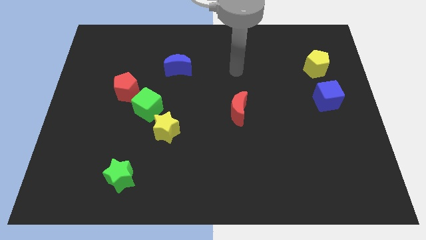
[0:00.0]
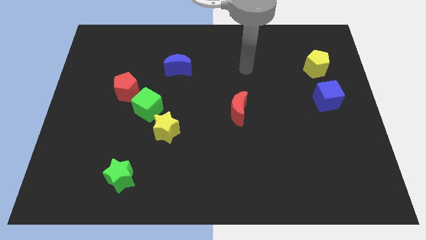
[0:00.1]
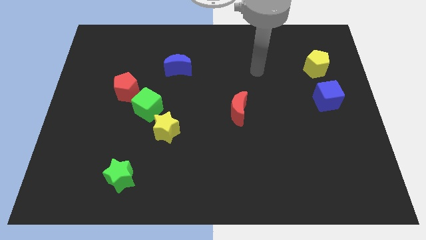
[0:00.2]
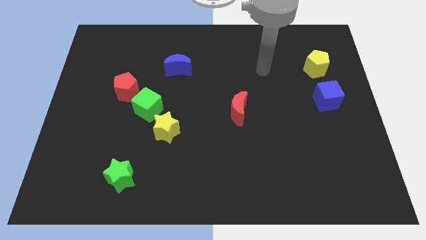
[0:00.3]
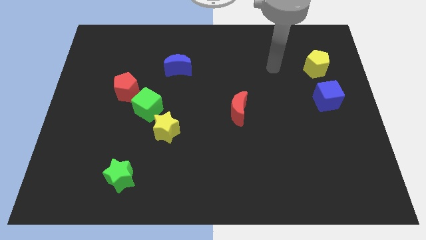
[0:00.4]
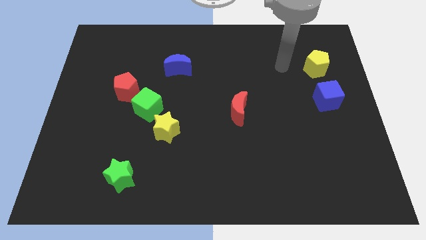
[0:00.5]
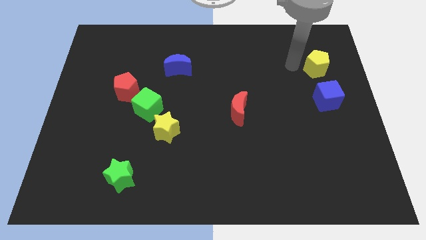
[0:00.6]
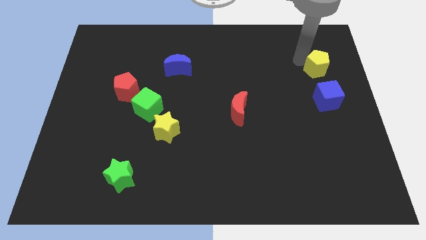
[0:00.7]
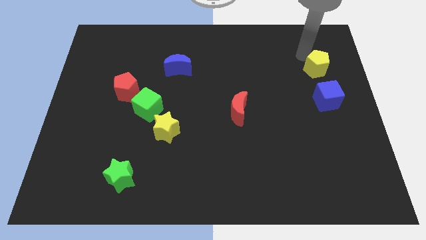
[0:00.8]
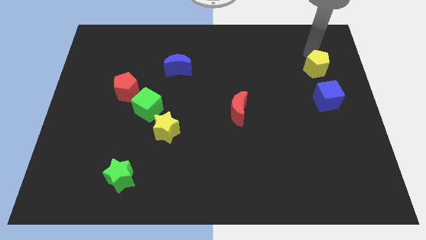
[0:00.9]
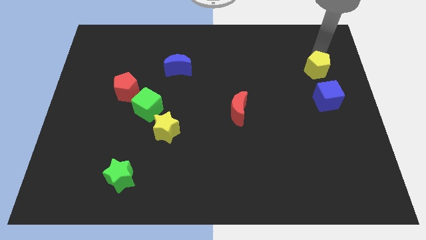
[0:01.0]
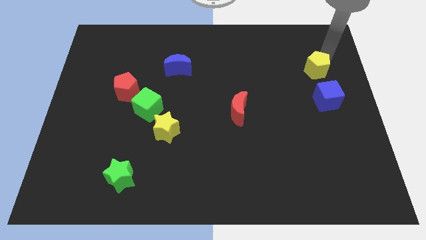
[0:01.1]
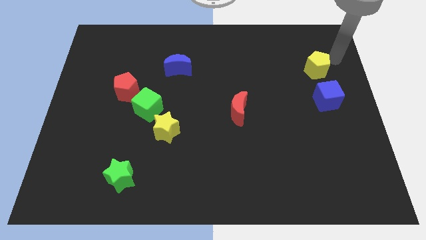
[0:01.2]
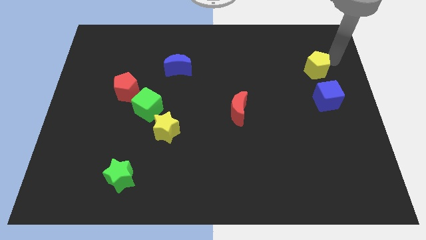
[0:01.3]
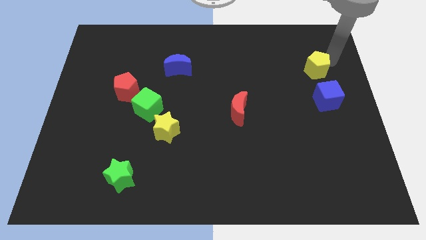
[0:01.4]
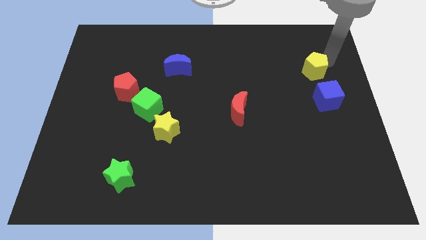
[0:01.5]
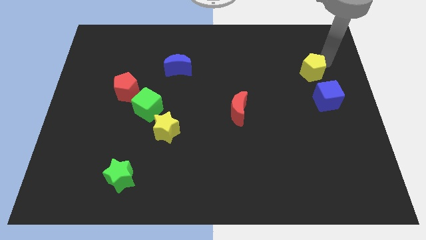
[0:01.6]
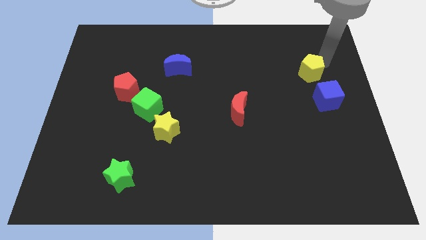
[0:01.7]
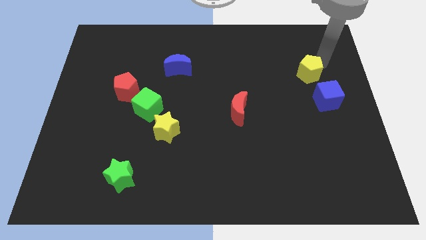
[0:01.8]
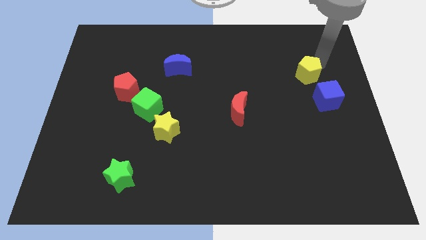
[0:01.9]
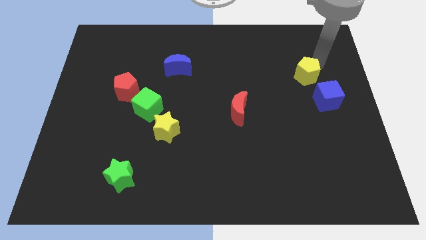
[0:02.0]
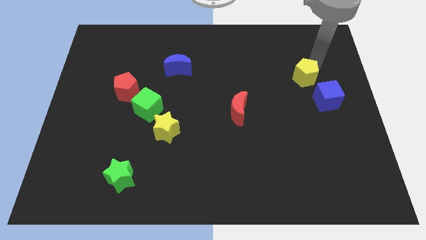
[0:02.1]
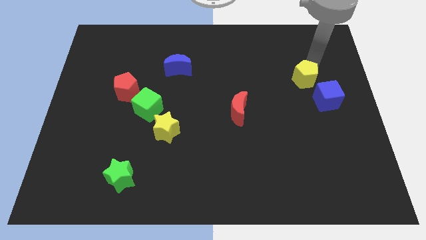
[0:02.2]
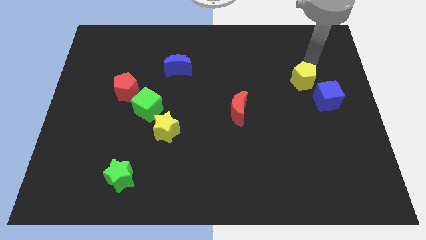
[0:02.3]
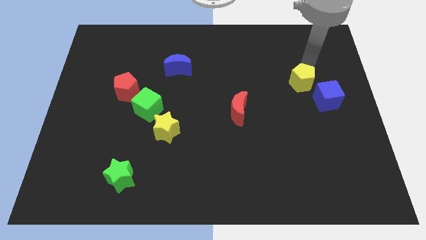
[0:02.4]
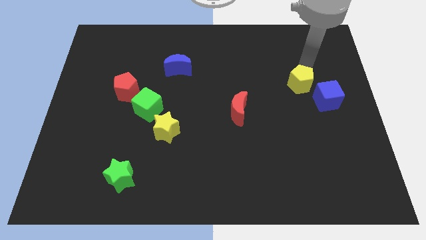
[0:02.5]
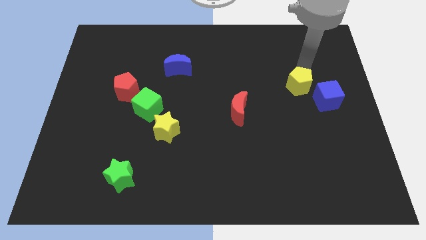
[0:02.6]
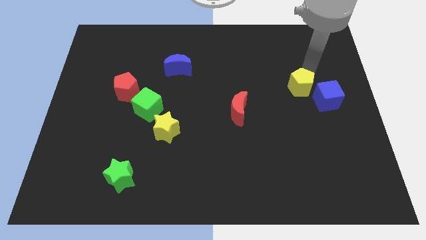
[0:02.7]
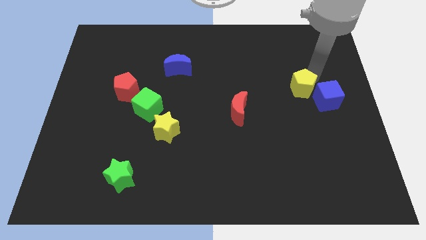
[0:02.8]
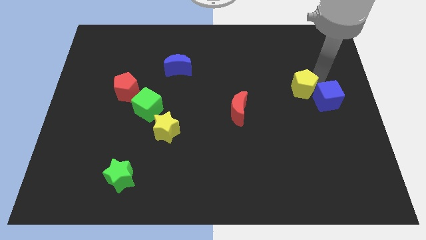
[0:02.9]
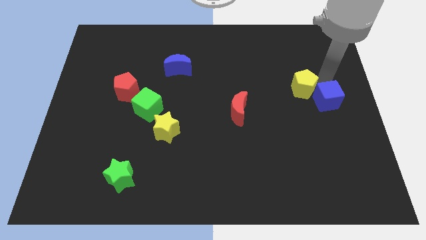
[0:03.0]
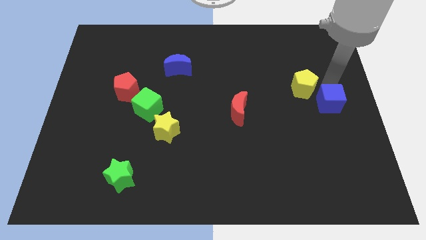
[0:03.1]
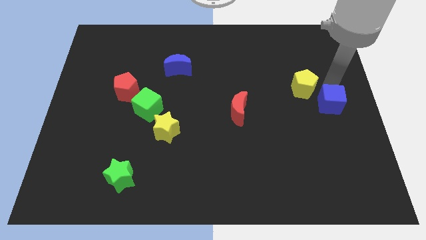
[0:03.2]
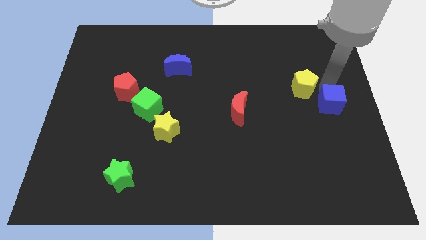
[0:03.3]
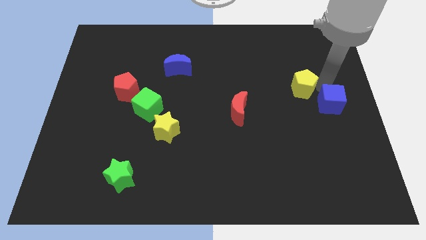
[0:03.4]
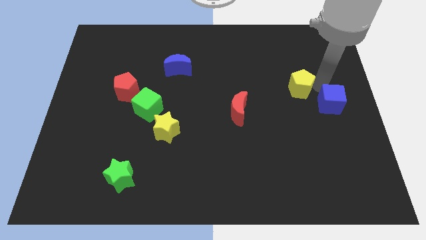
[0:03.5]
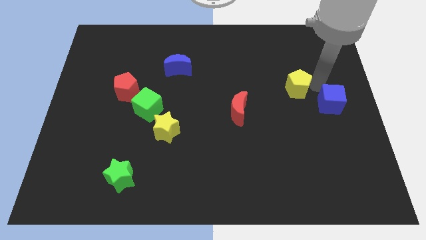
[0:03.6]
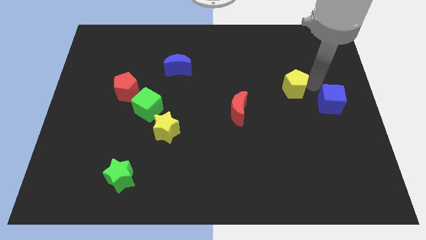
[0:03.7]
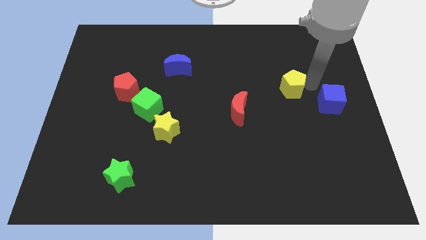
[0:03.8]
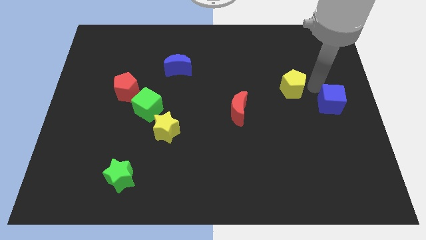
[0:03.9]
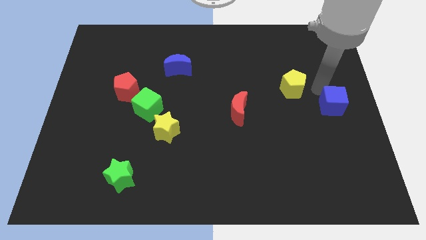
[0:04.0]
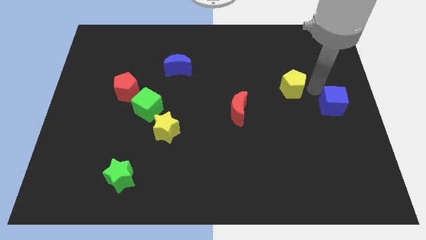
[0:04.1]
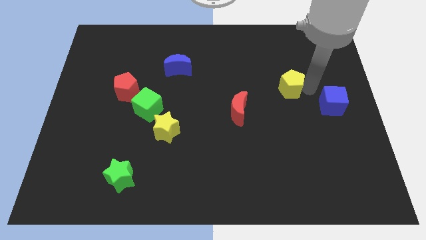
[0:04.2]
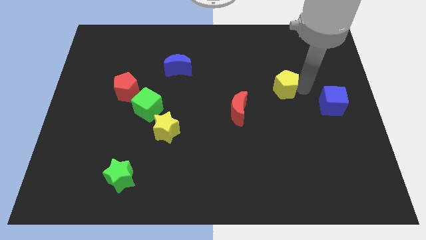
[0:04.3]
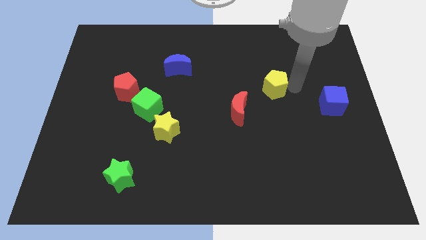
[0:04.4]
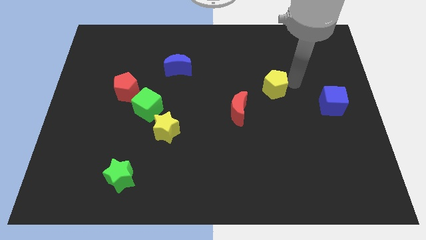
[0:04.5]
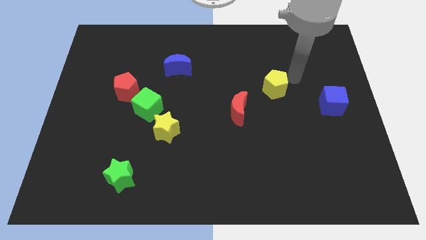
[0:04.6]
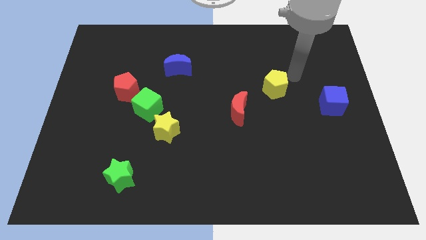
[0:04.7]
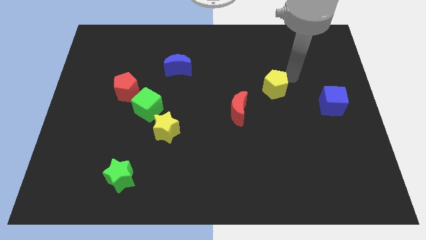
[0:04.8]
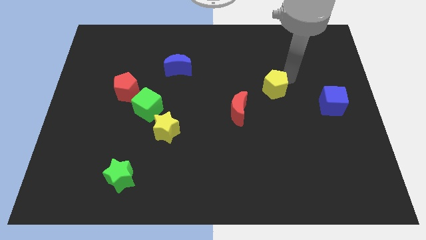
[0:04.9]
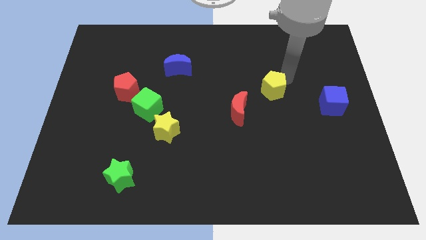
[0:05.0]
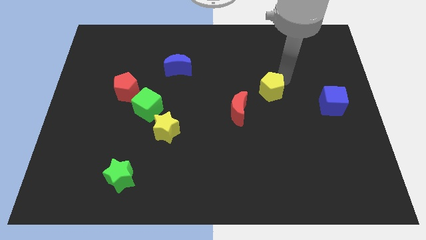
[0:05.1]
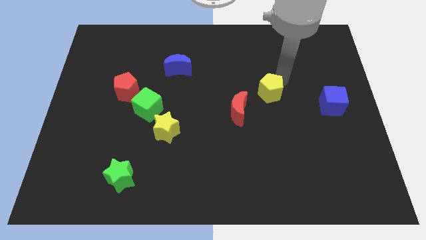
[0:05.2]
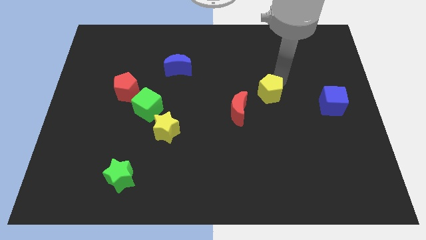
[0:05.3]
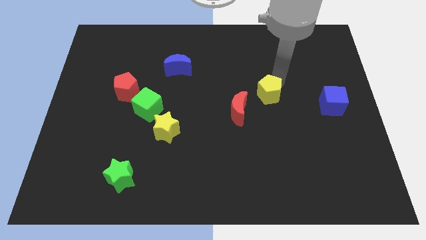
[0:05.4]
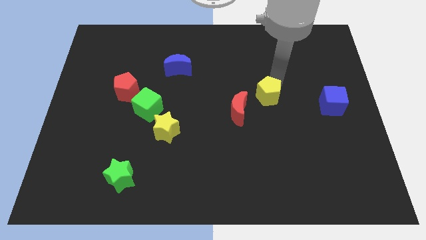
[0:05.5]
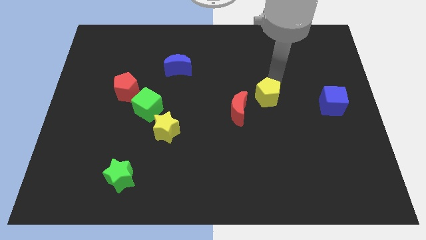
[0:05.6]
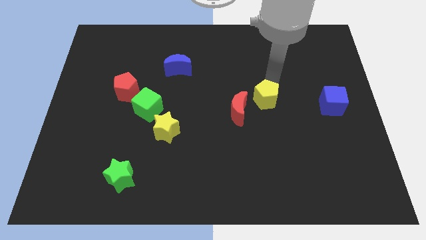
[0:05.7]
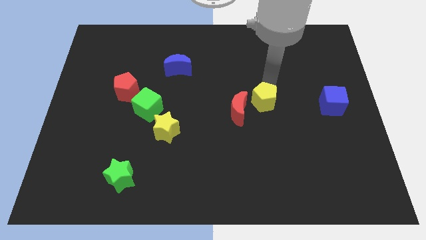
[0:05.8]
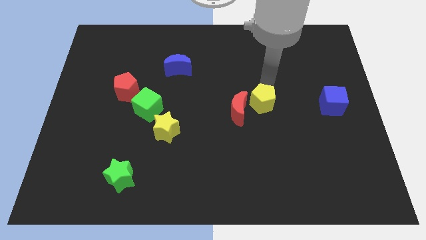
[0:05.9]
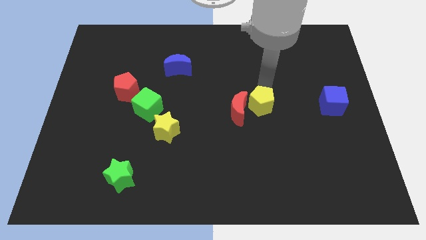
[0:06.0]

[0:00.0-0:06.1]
move the yellow pentagon next to the red moon

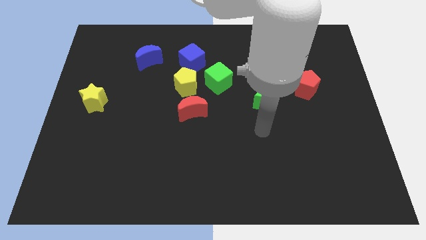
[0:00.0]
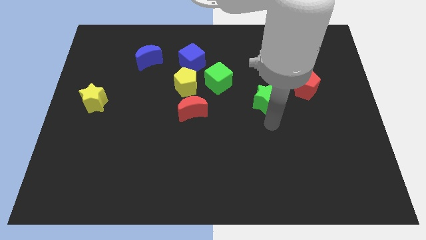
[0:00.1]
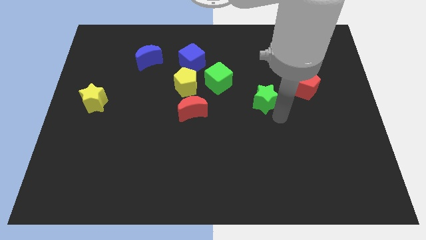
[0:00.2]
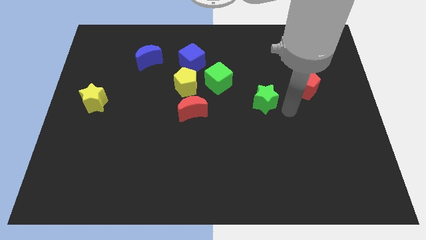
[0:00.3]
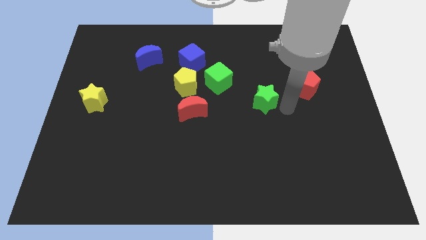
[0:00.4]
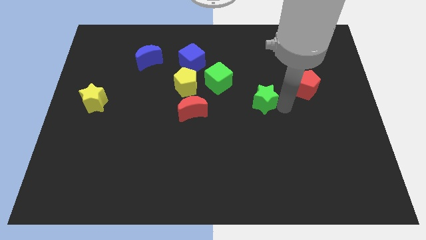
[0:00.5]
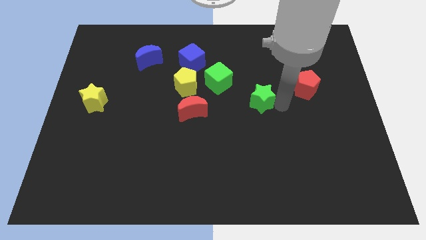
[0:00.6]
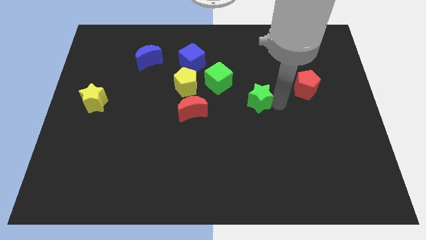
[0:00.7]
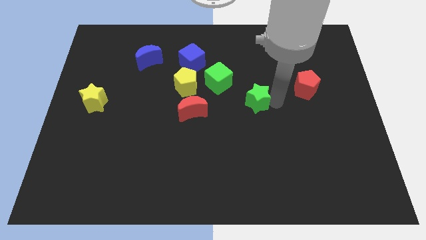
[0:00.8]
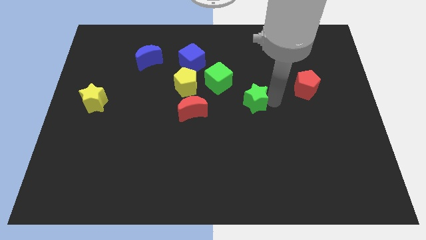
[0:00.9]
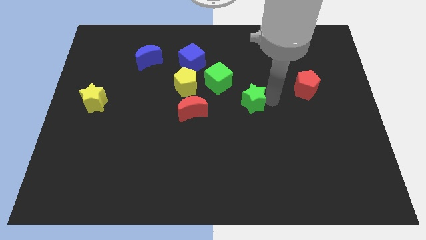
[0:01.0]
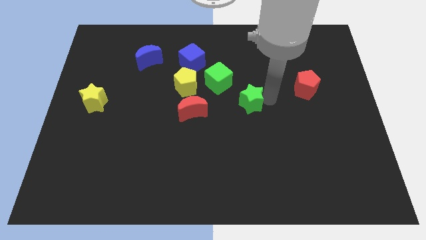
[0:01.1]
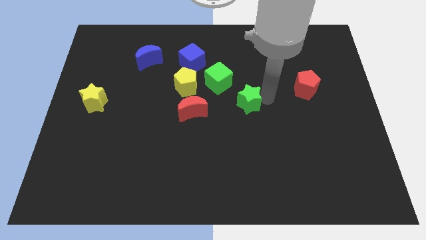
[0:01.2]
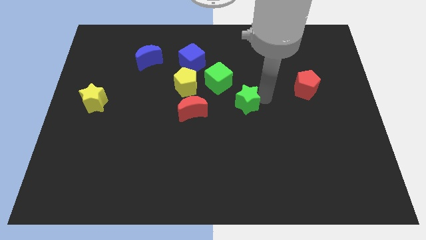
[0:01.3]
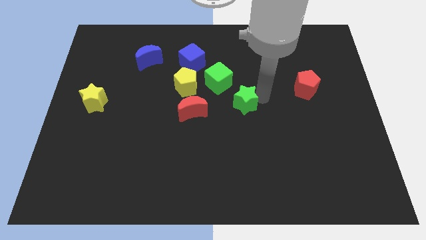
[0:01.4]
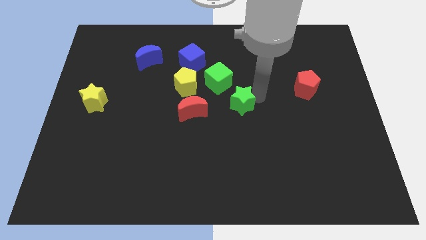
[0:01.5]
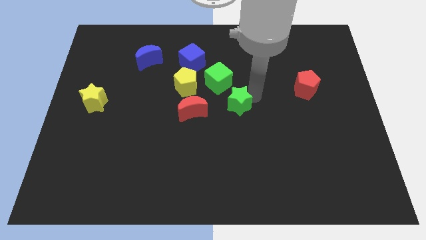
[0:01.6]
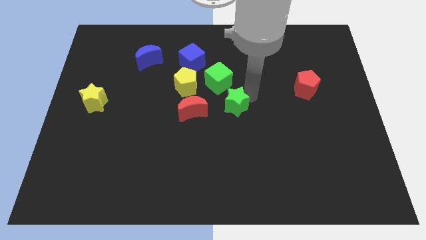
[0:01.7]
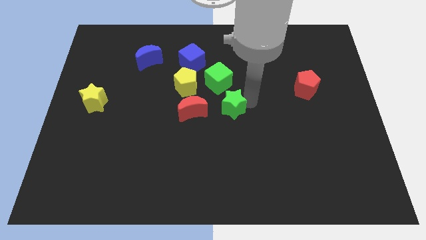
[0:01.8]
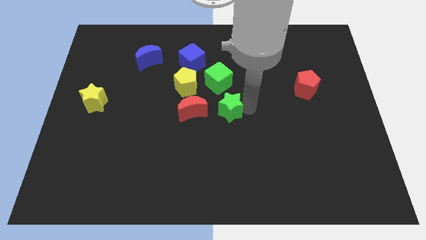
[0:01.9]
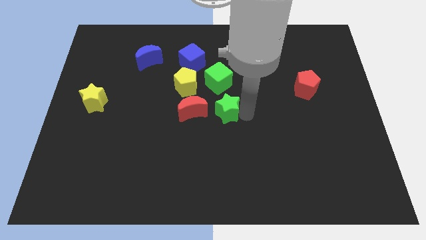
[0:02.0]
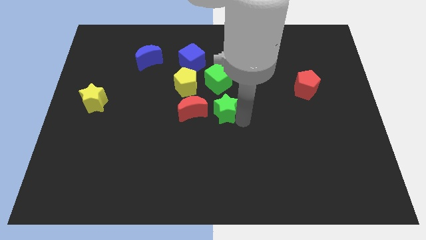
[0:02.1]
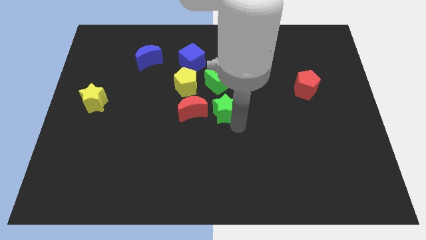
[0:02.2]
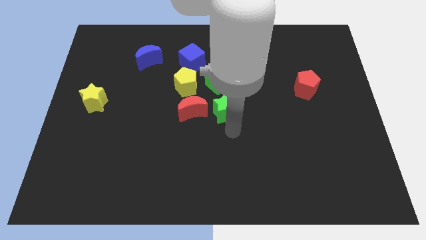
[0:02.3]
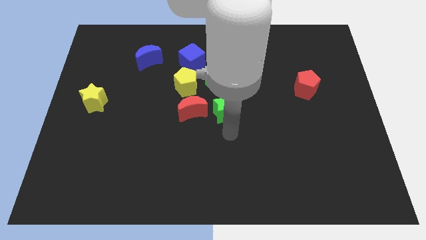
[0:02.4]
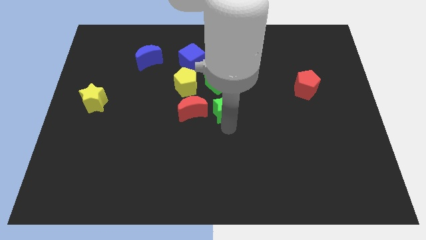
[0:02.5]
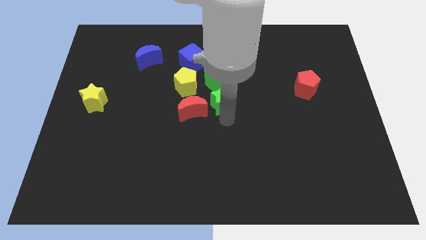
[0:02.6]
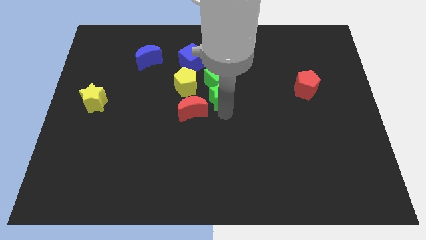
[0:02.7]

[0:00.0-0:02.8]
move the green star to the green cube
